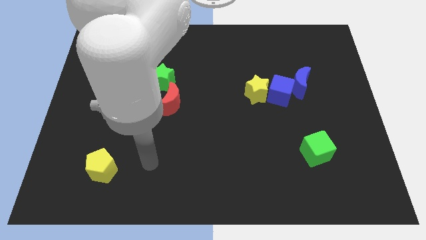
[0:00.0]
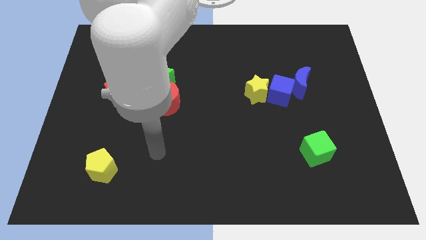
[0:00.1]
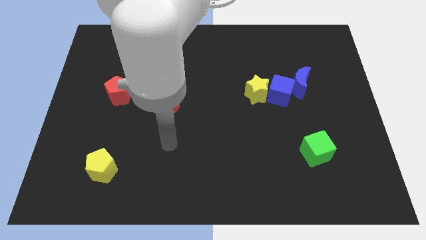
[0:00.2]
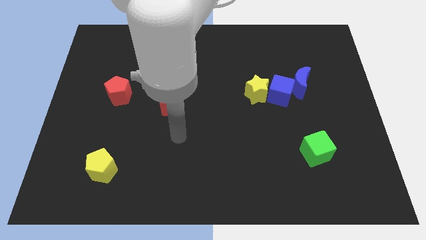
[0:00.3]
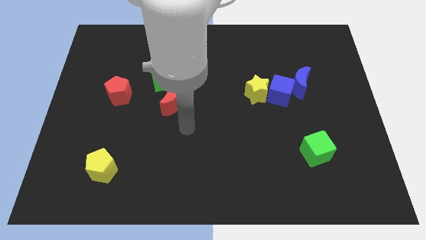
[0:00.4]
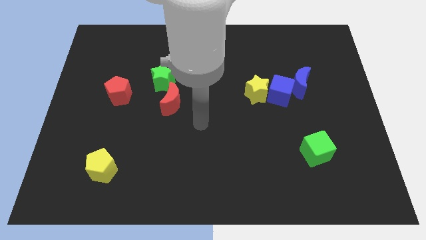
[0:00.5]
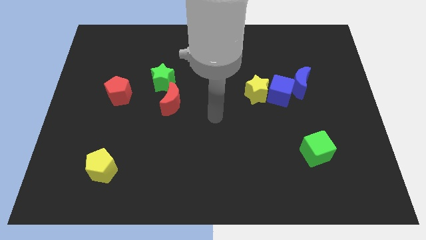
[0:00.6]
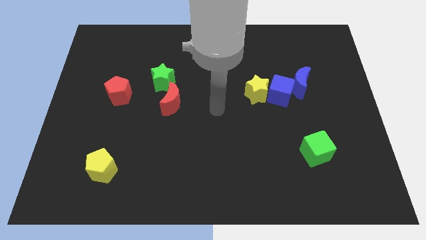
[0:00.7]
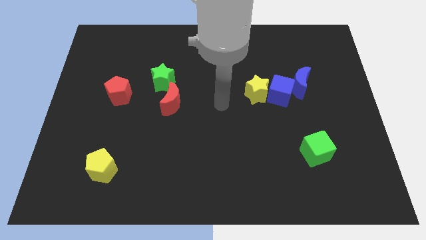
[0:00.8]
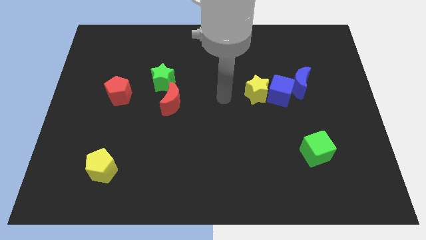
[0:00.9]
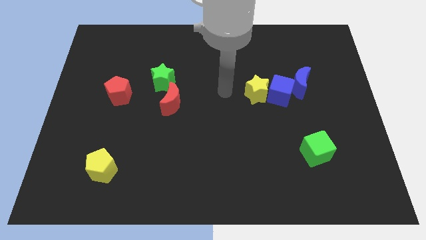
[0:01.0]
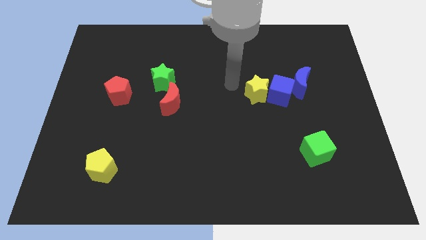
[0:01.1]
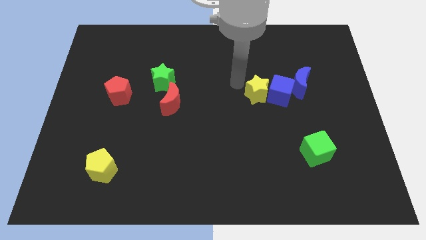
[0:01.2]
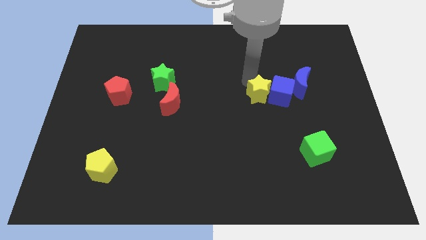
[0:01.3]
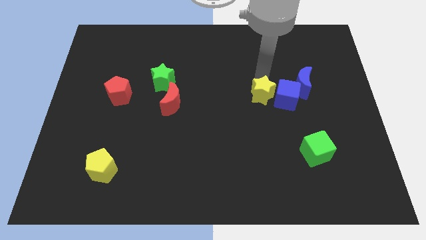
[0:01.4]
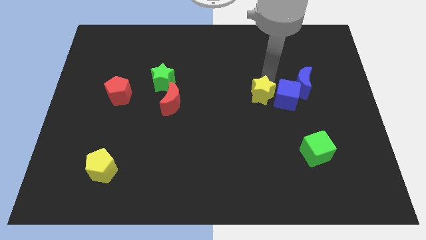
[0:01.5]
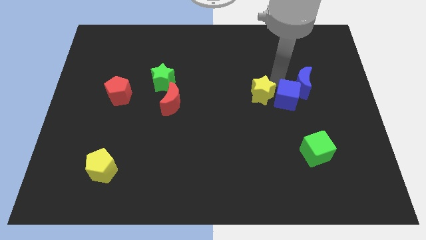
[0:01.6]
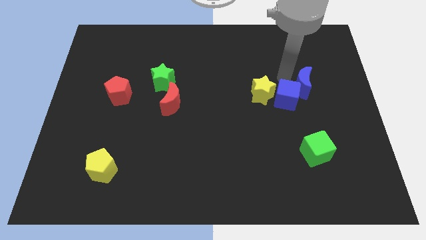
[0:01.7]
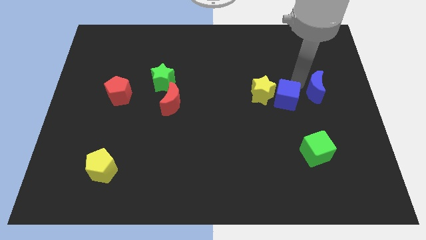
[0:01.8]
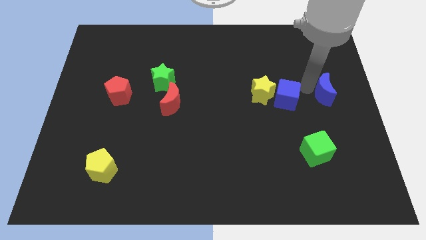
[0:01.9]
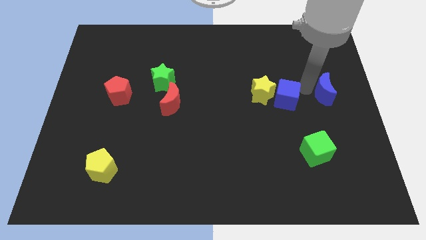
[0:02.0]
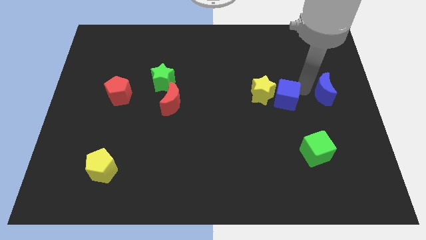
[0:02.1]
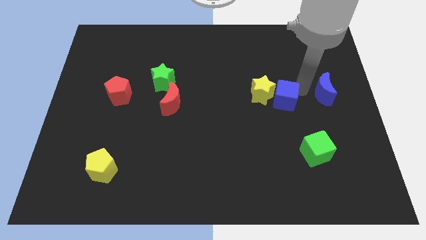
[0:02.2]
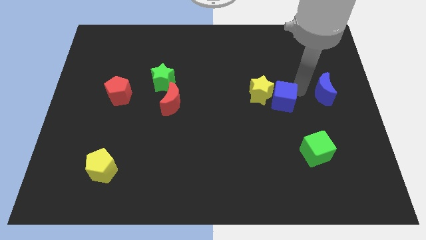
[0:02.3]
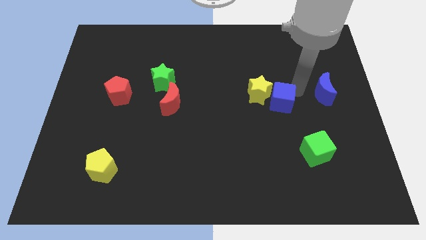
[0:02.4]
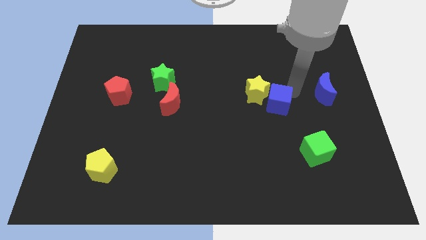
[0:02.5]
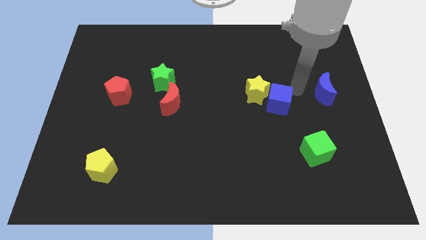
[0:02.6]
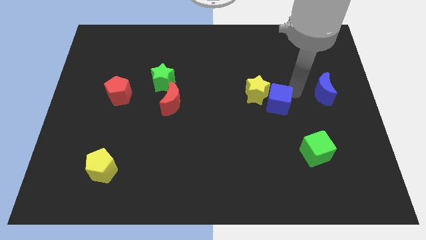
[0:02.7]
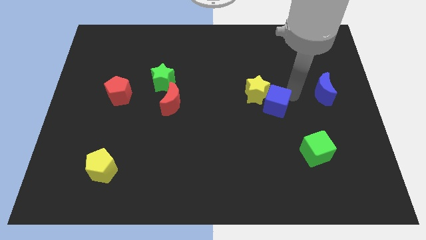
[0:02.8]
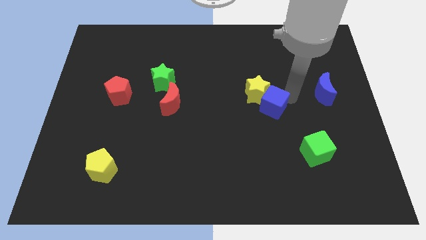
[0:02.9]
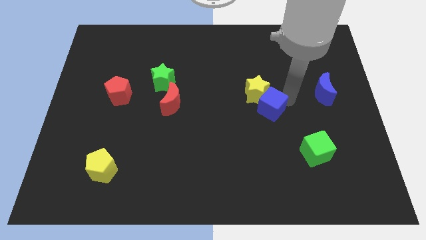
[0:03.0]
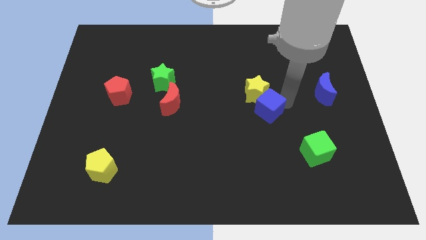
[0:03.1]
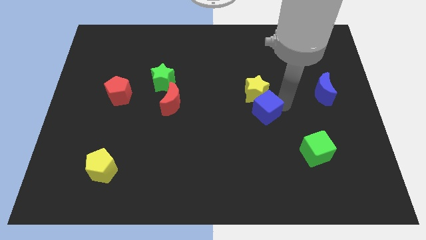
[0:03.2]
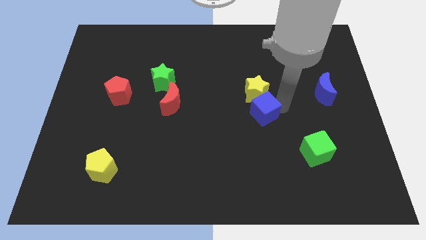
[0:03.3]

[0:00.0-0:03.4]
push the blue cube downwards and then left a little

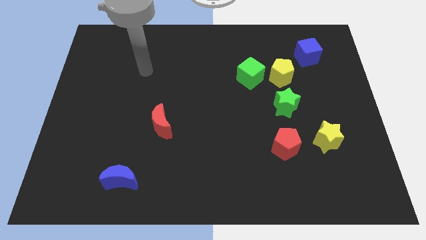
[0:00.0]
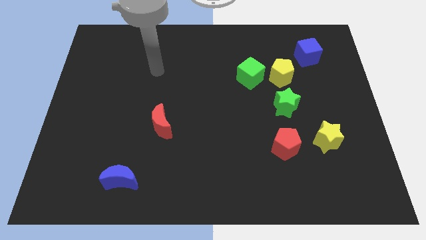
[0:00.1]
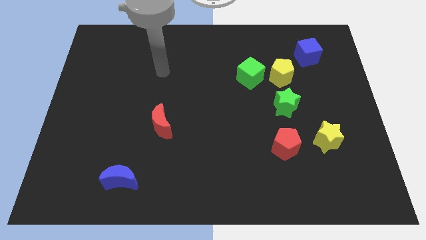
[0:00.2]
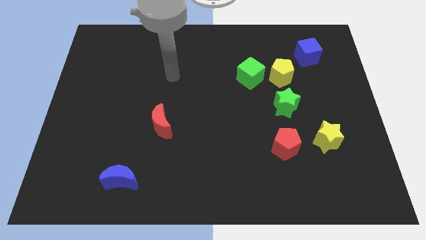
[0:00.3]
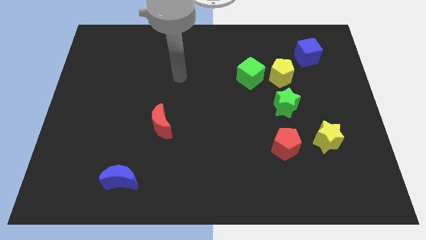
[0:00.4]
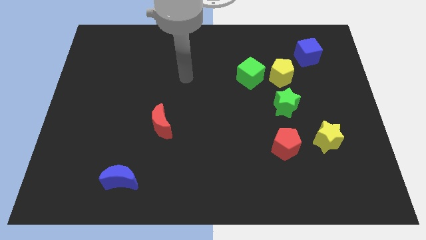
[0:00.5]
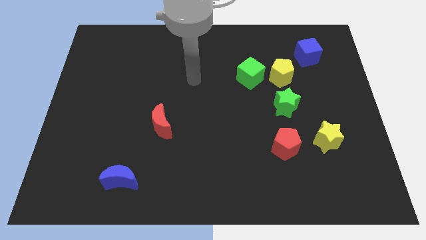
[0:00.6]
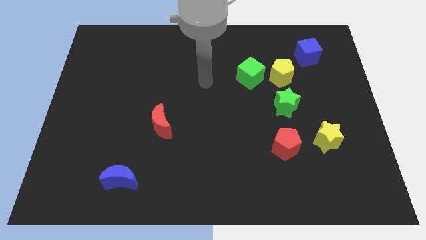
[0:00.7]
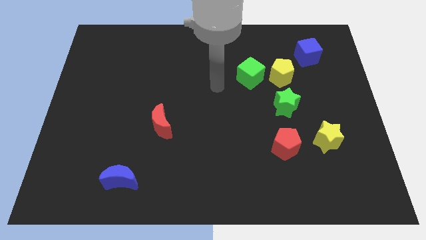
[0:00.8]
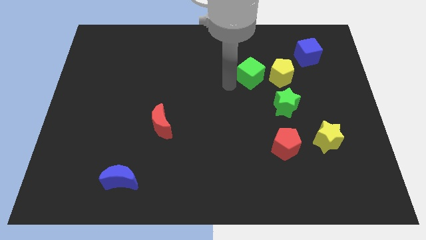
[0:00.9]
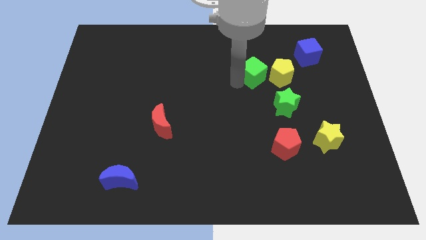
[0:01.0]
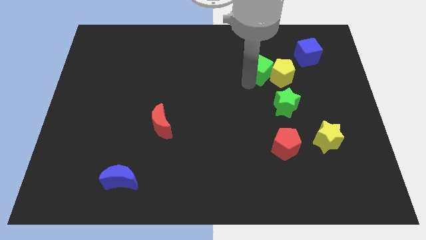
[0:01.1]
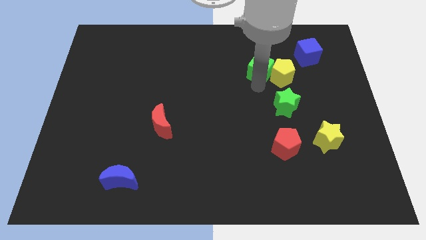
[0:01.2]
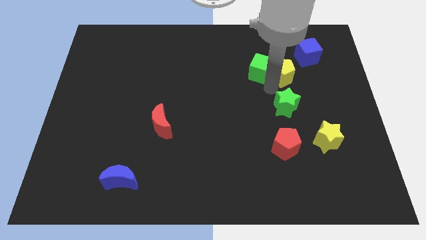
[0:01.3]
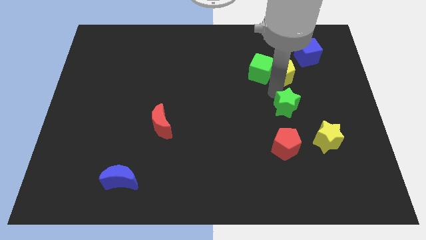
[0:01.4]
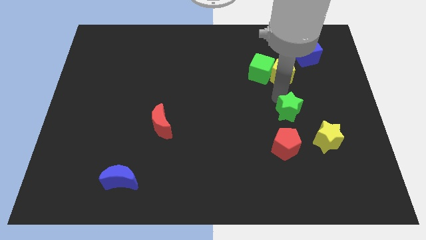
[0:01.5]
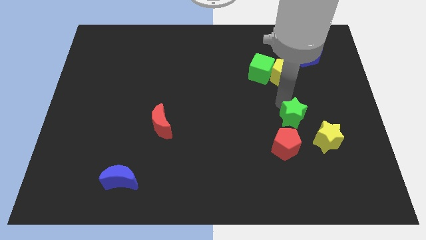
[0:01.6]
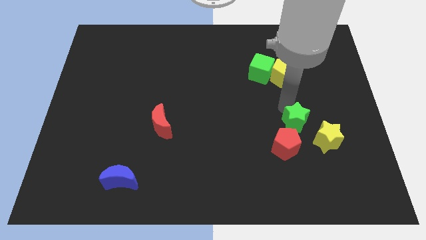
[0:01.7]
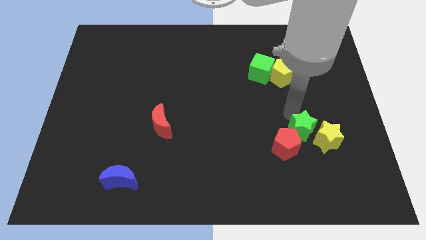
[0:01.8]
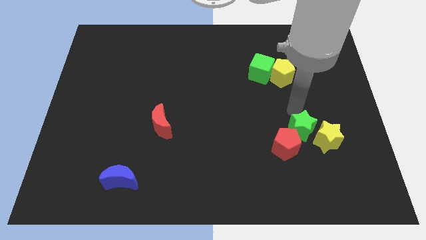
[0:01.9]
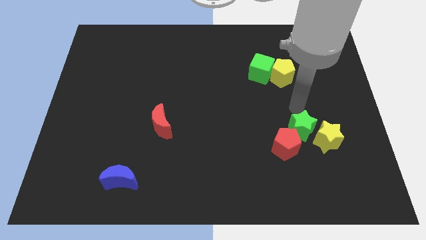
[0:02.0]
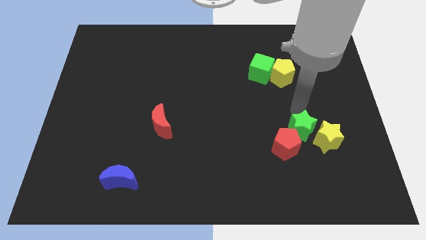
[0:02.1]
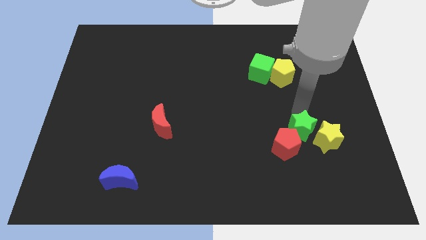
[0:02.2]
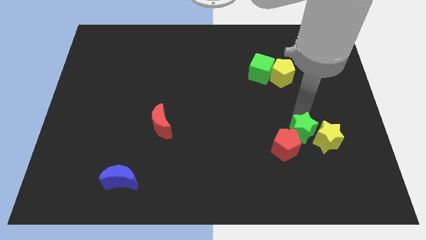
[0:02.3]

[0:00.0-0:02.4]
push the green star somewhat downwards

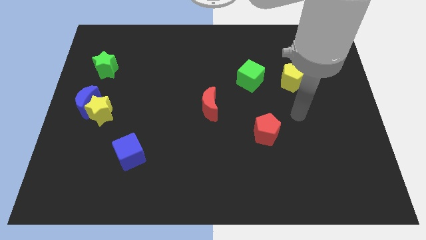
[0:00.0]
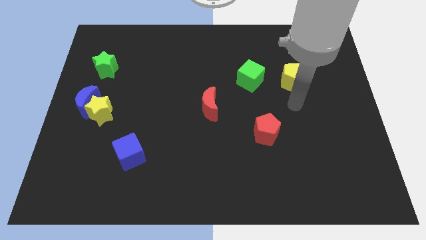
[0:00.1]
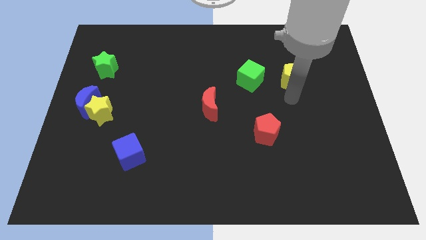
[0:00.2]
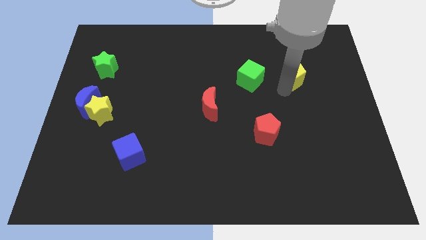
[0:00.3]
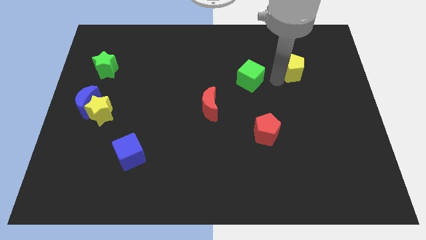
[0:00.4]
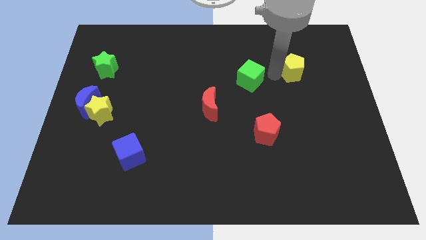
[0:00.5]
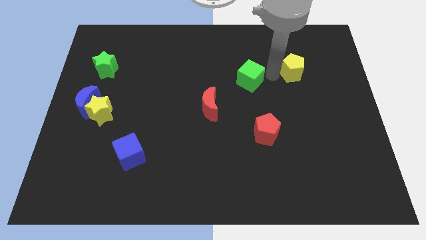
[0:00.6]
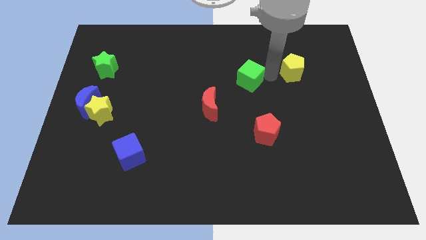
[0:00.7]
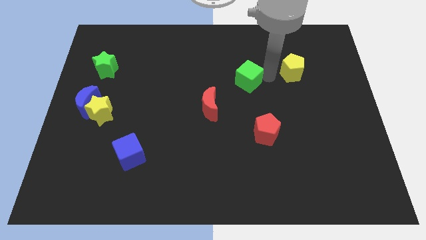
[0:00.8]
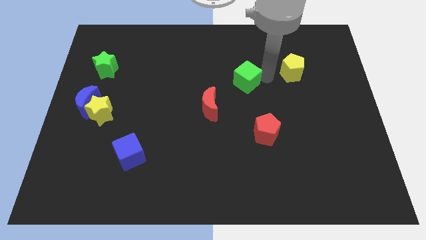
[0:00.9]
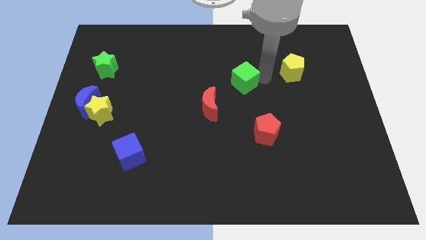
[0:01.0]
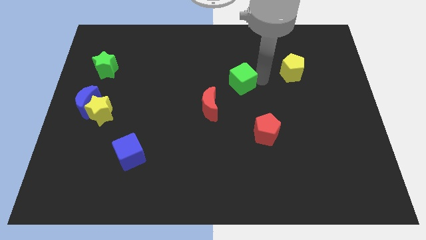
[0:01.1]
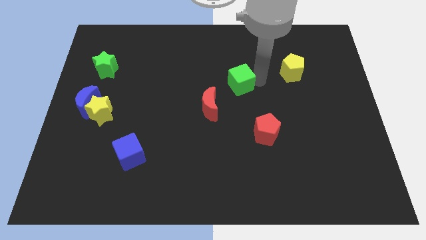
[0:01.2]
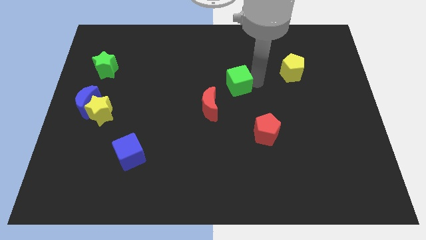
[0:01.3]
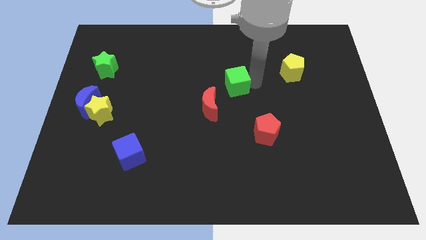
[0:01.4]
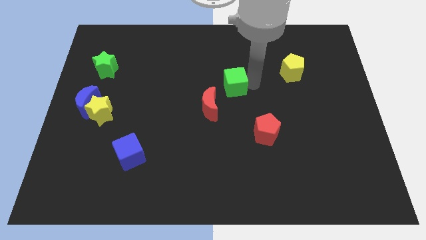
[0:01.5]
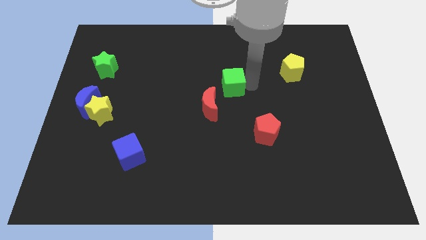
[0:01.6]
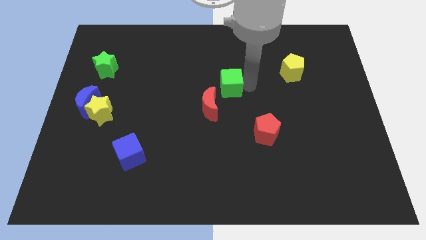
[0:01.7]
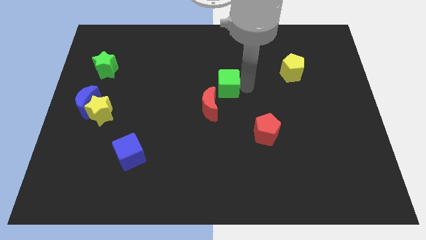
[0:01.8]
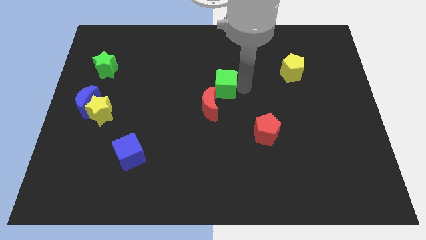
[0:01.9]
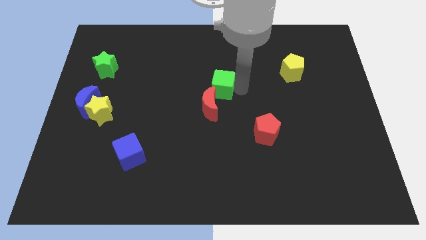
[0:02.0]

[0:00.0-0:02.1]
slightly move the green cube to the left

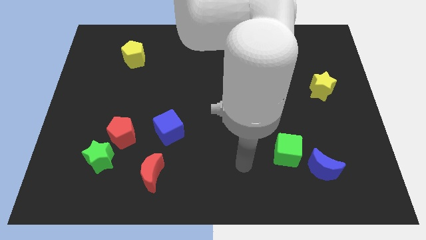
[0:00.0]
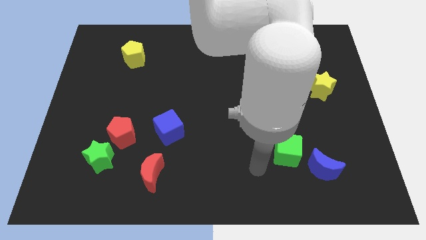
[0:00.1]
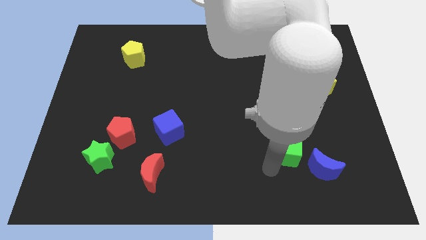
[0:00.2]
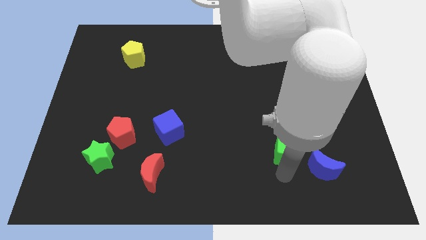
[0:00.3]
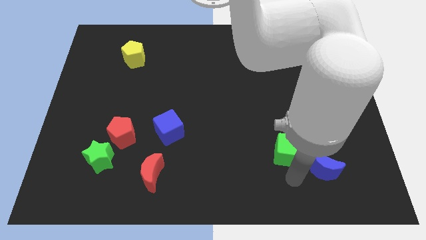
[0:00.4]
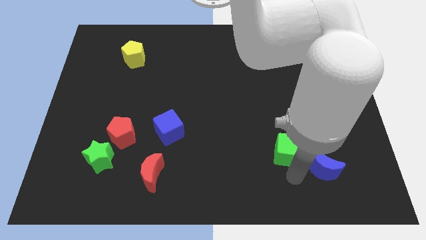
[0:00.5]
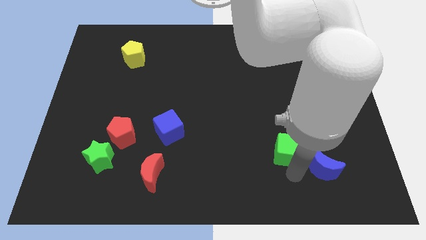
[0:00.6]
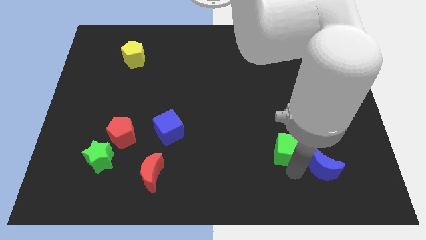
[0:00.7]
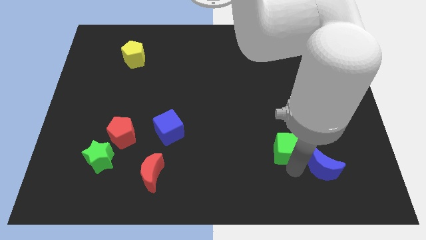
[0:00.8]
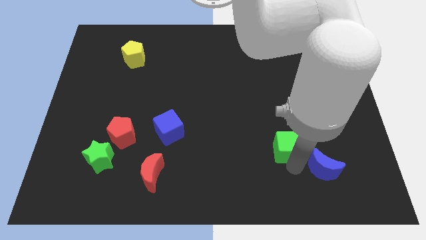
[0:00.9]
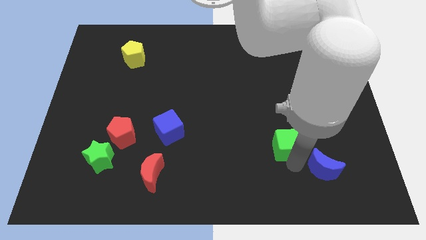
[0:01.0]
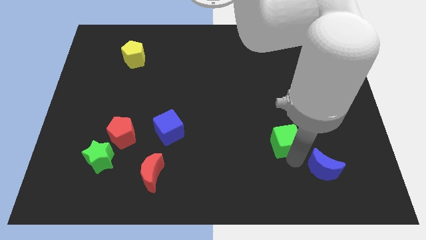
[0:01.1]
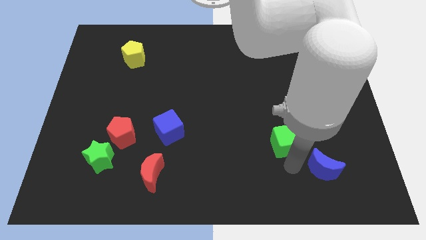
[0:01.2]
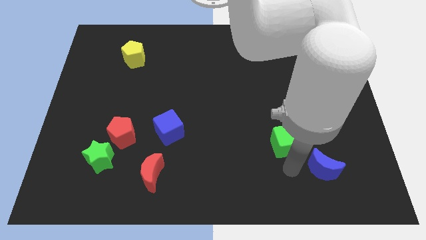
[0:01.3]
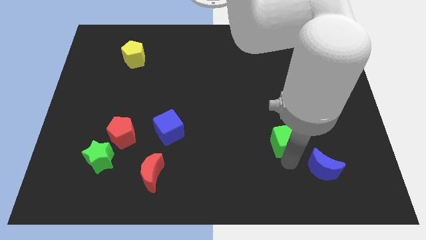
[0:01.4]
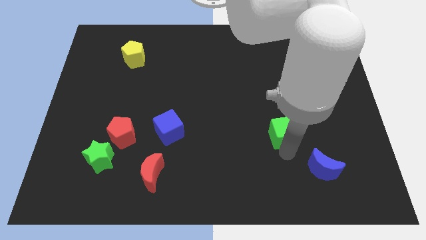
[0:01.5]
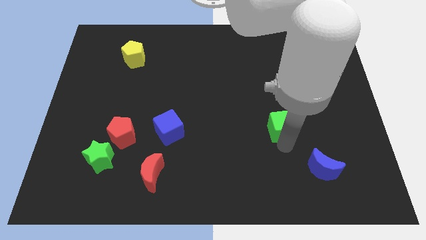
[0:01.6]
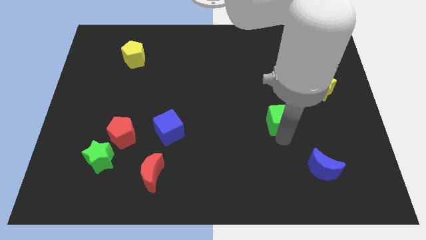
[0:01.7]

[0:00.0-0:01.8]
push the green cube slightly up
